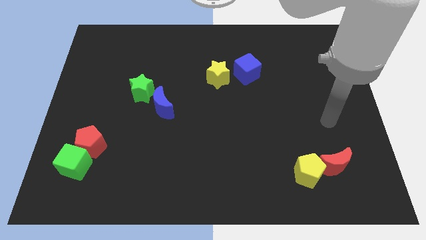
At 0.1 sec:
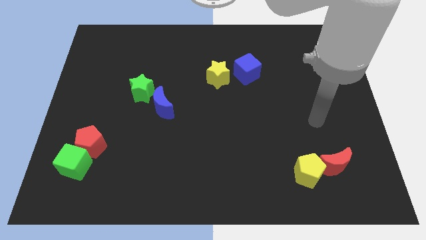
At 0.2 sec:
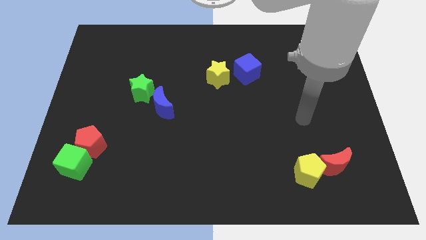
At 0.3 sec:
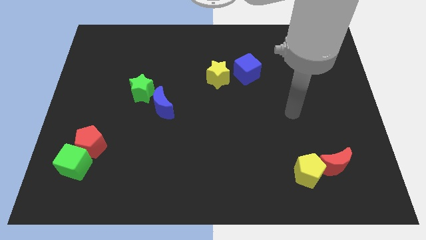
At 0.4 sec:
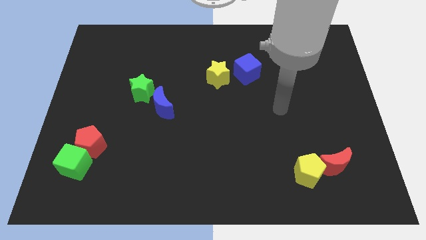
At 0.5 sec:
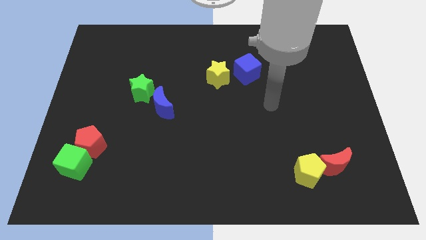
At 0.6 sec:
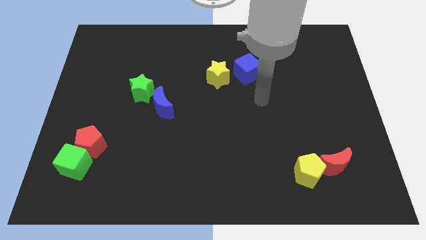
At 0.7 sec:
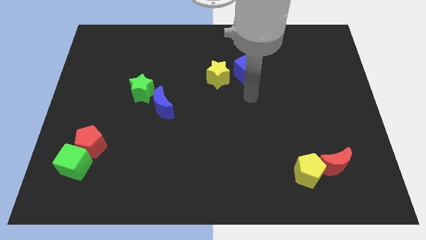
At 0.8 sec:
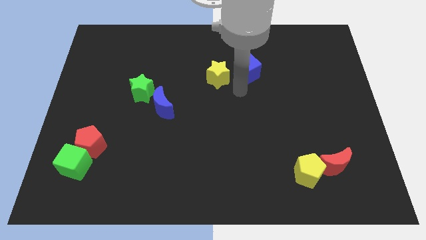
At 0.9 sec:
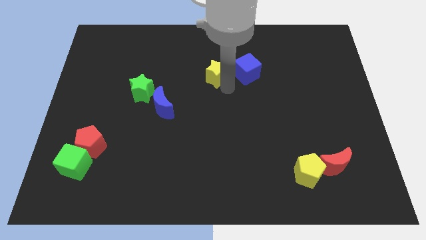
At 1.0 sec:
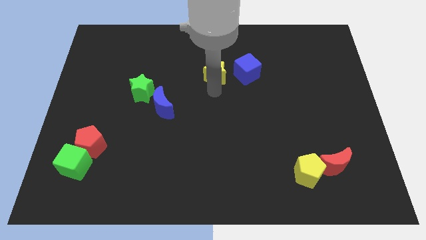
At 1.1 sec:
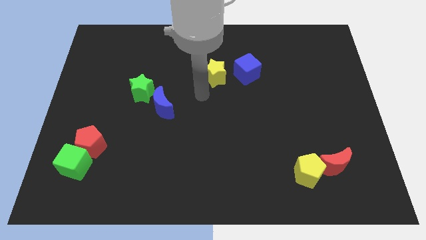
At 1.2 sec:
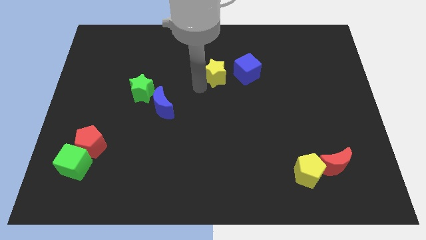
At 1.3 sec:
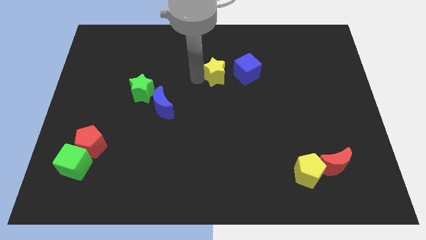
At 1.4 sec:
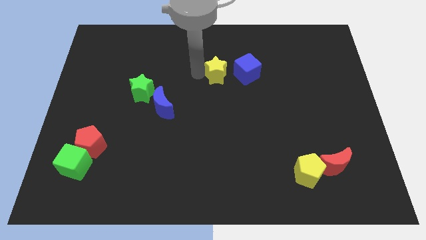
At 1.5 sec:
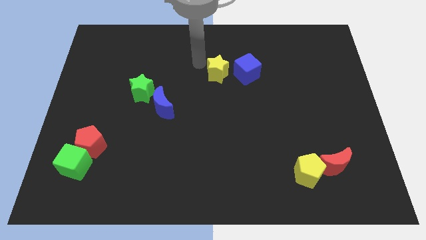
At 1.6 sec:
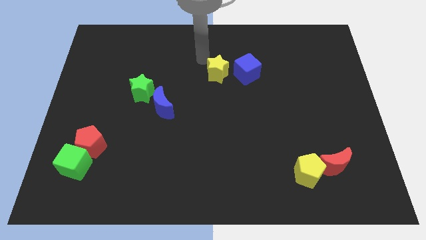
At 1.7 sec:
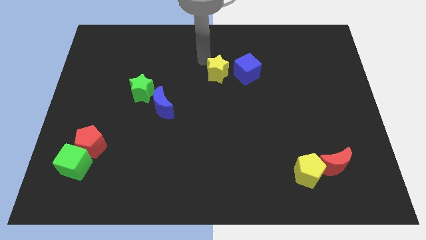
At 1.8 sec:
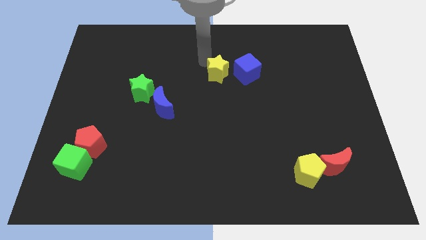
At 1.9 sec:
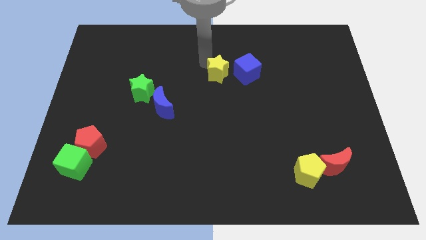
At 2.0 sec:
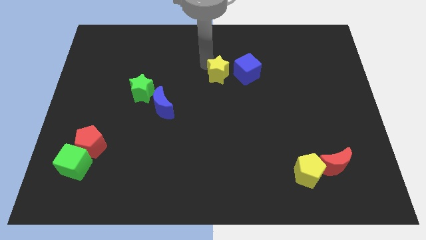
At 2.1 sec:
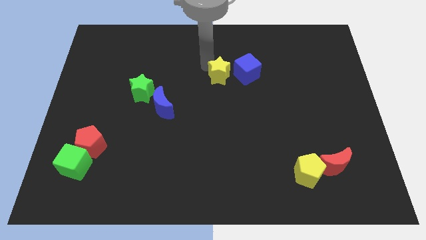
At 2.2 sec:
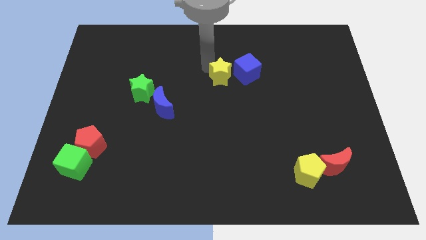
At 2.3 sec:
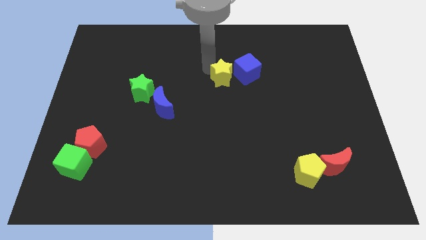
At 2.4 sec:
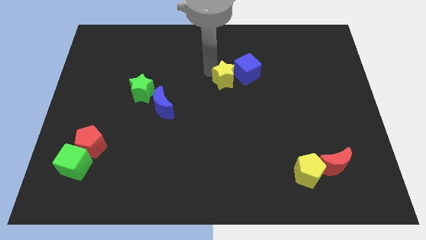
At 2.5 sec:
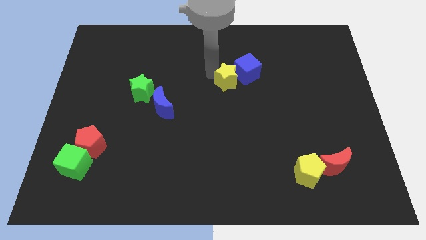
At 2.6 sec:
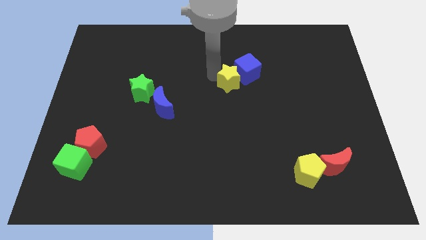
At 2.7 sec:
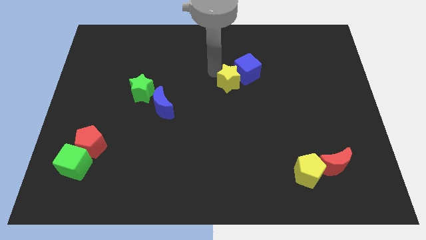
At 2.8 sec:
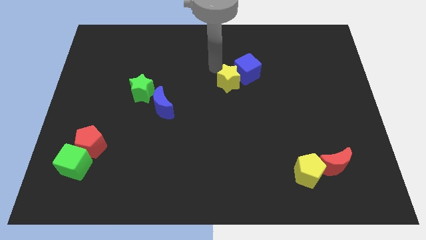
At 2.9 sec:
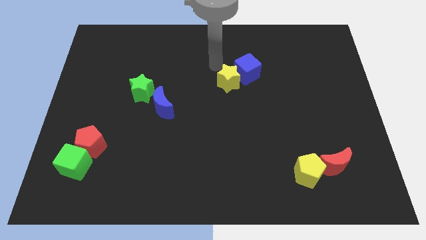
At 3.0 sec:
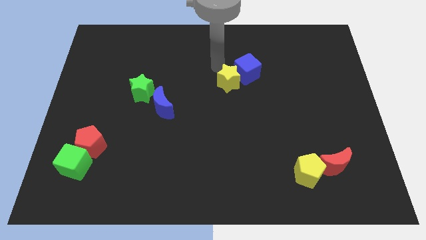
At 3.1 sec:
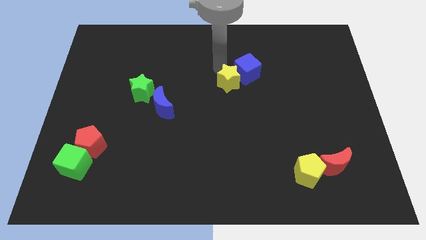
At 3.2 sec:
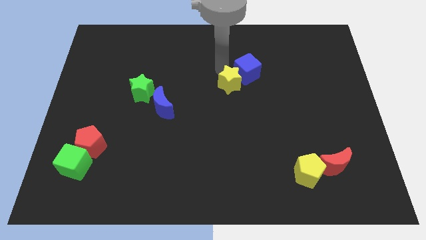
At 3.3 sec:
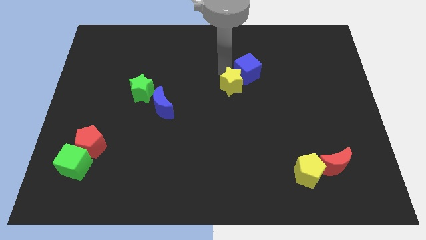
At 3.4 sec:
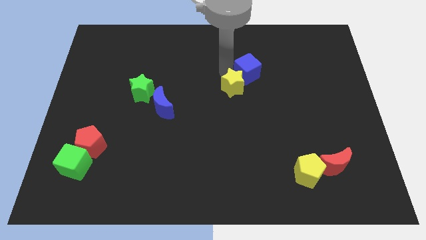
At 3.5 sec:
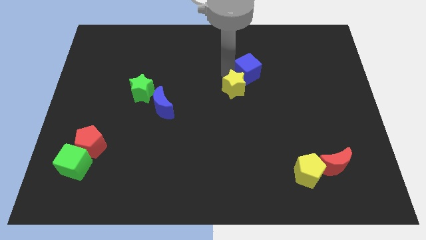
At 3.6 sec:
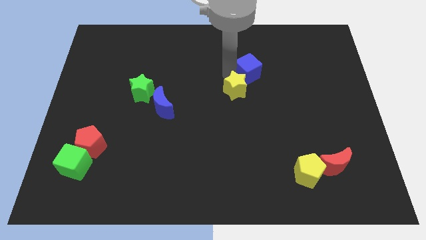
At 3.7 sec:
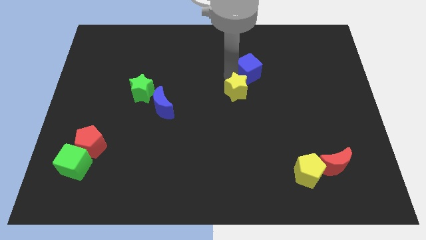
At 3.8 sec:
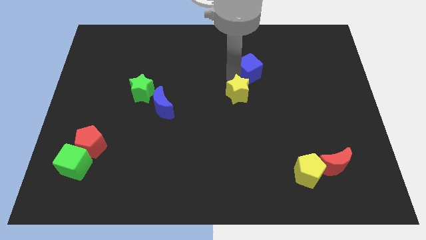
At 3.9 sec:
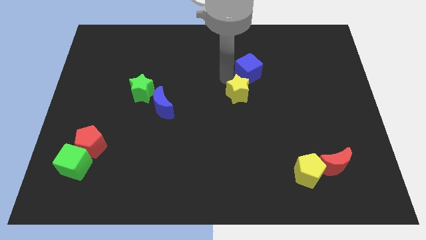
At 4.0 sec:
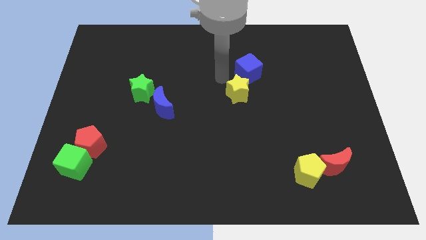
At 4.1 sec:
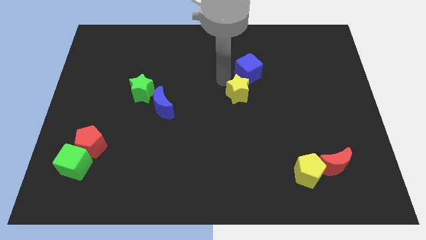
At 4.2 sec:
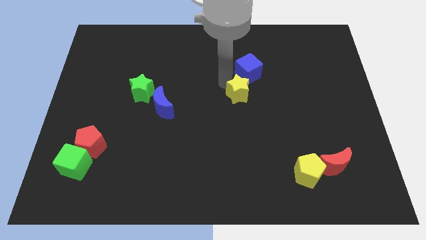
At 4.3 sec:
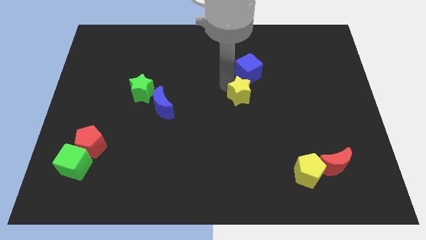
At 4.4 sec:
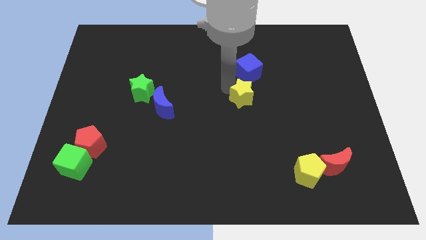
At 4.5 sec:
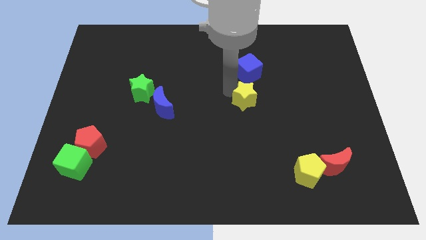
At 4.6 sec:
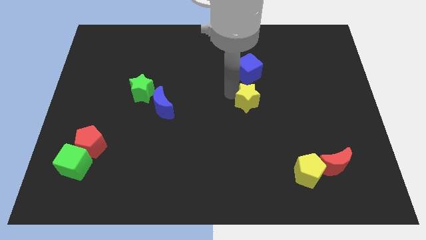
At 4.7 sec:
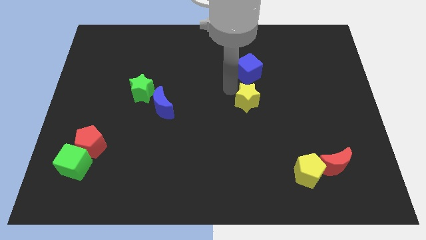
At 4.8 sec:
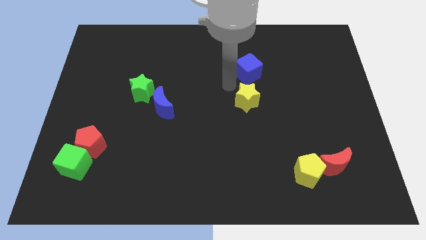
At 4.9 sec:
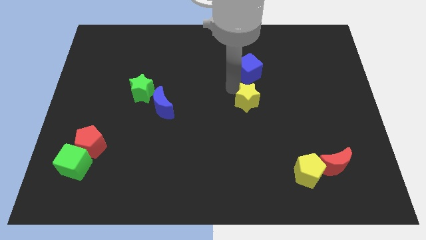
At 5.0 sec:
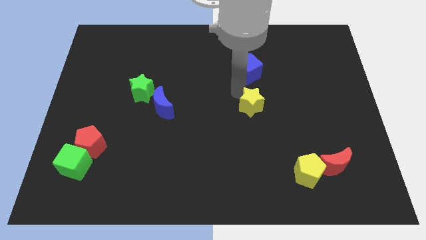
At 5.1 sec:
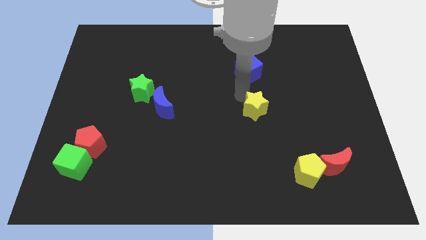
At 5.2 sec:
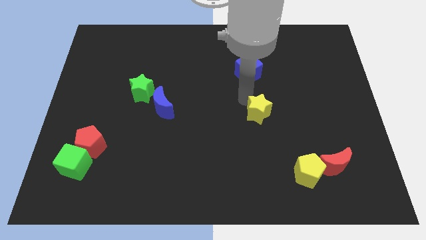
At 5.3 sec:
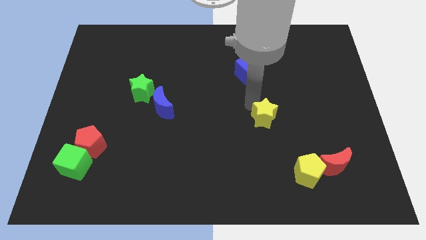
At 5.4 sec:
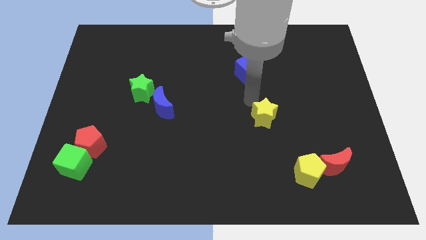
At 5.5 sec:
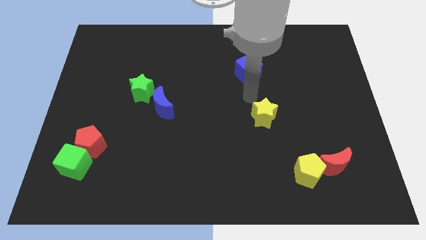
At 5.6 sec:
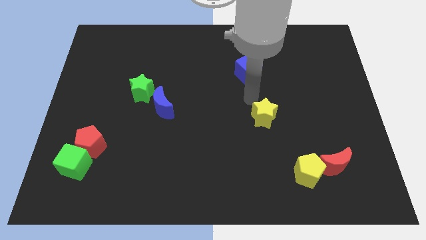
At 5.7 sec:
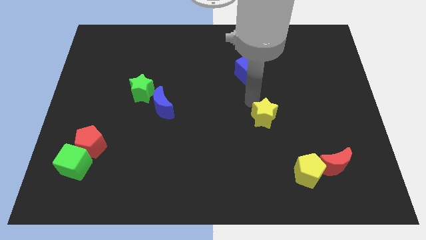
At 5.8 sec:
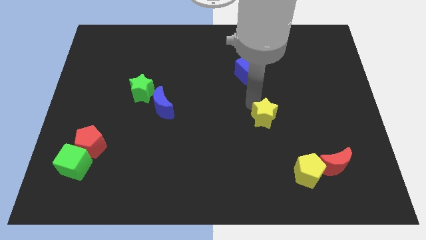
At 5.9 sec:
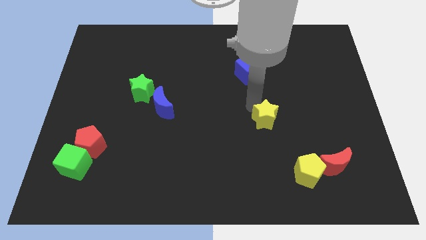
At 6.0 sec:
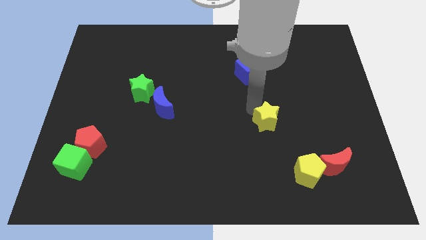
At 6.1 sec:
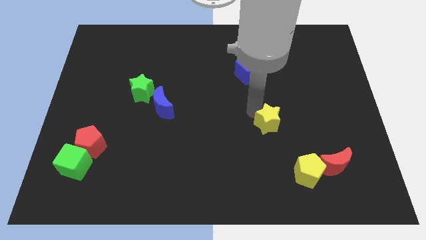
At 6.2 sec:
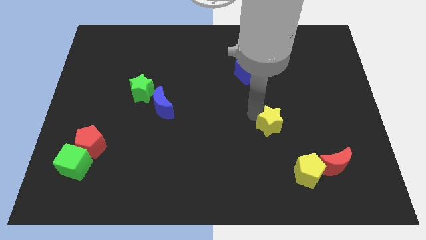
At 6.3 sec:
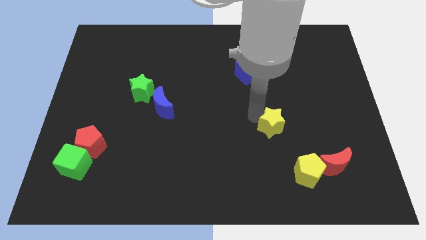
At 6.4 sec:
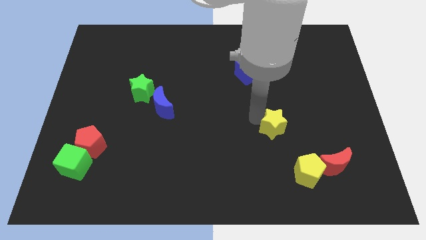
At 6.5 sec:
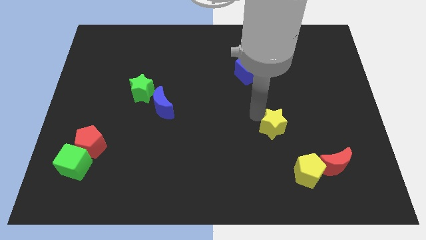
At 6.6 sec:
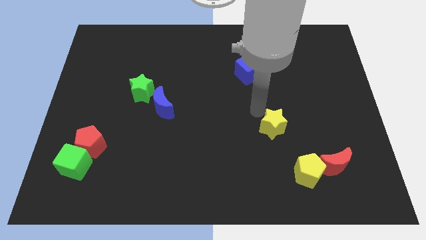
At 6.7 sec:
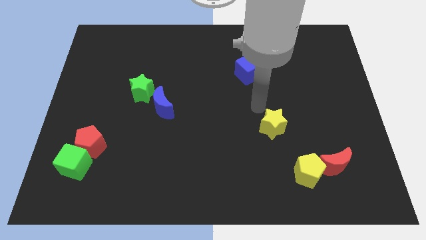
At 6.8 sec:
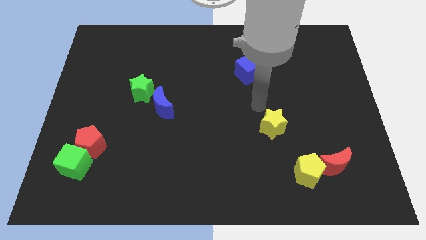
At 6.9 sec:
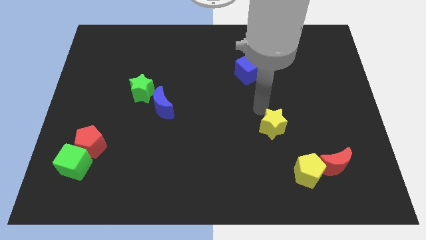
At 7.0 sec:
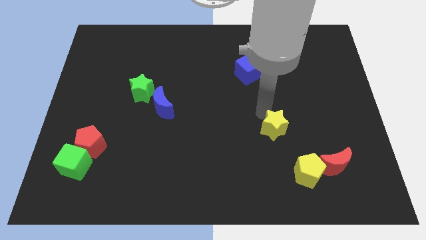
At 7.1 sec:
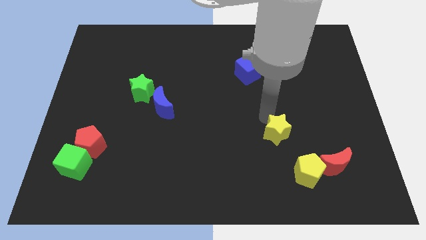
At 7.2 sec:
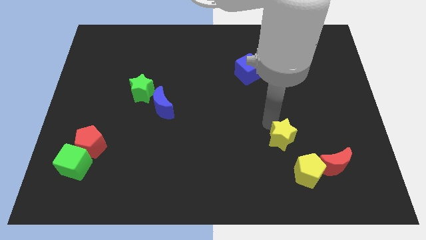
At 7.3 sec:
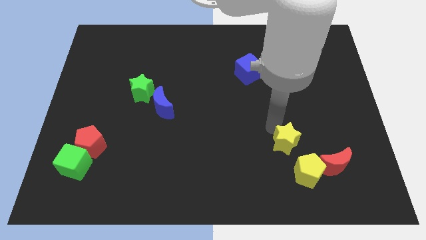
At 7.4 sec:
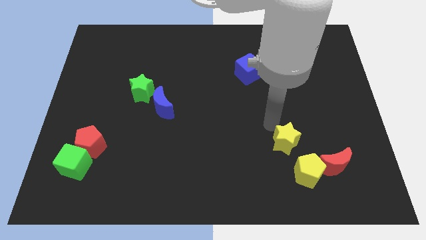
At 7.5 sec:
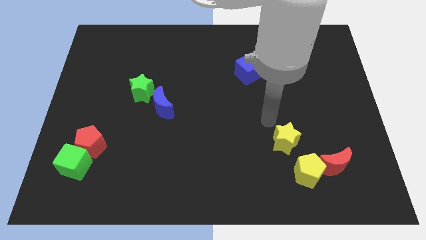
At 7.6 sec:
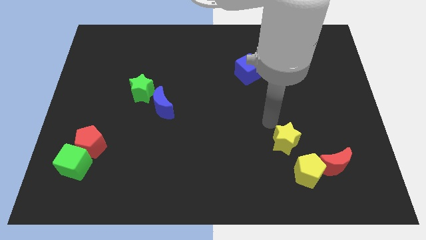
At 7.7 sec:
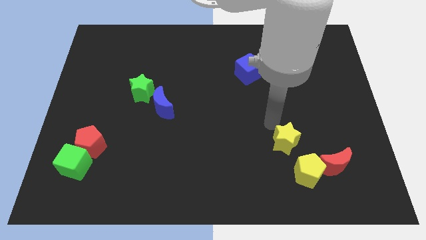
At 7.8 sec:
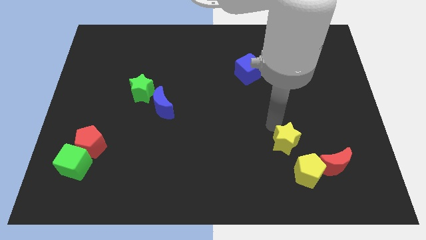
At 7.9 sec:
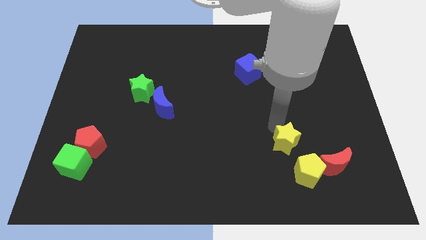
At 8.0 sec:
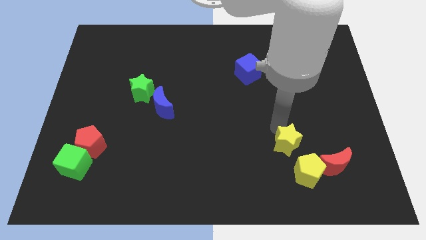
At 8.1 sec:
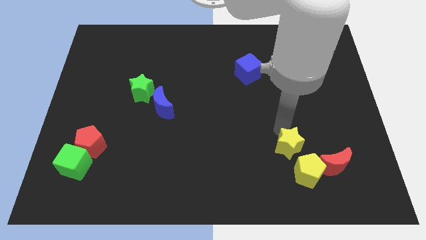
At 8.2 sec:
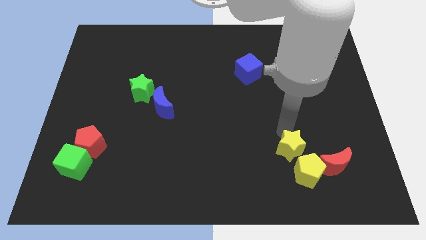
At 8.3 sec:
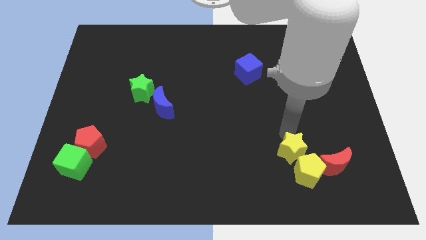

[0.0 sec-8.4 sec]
slide the yellow star next to the yellow pentagon
